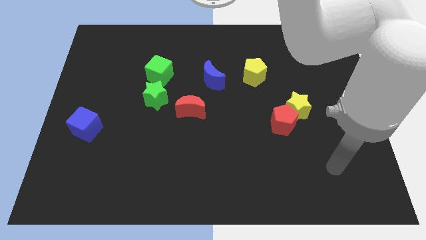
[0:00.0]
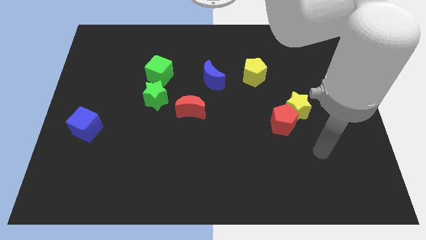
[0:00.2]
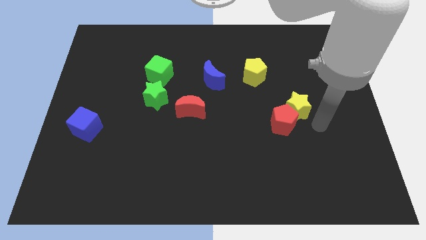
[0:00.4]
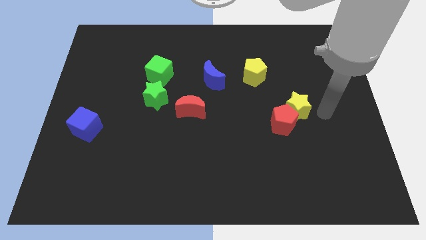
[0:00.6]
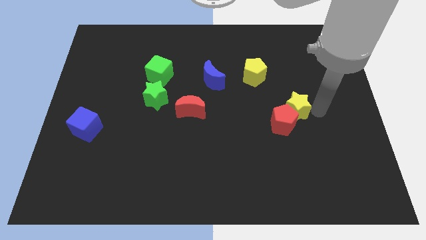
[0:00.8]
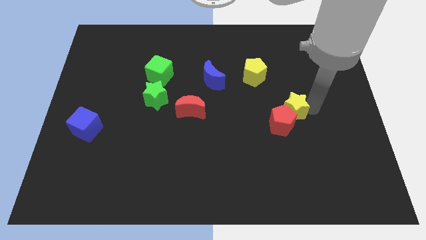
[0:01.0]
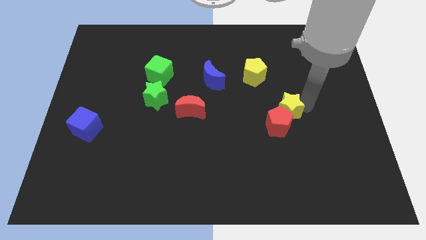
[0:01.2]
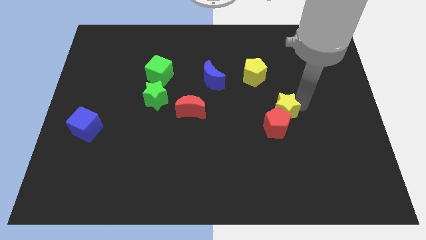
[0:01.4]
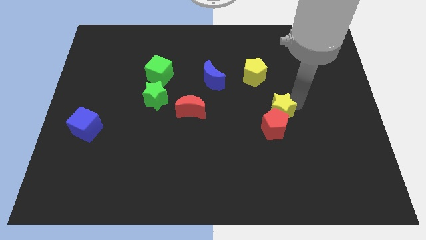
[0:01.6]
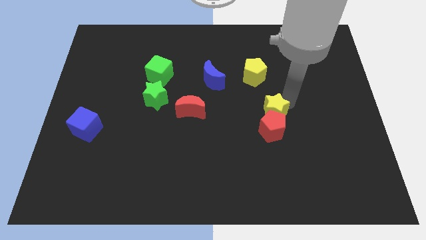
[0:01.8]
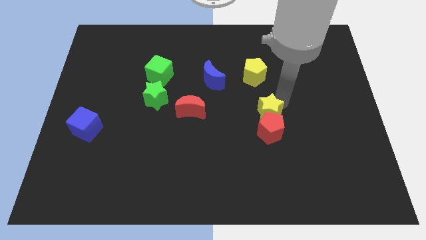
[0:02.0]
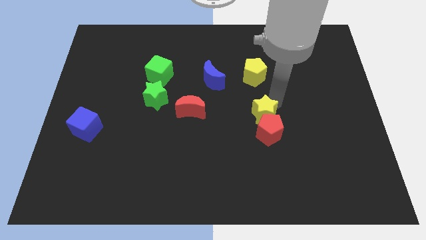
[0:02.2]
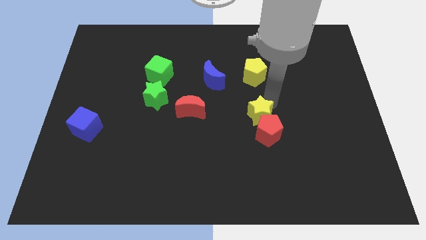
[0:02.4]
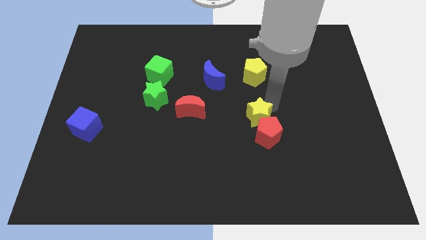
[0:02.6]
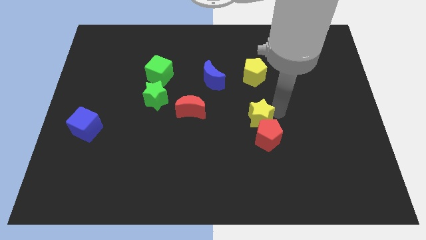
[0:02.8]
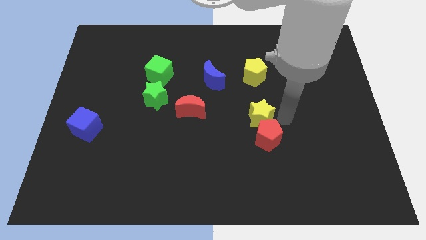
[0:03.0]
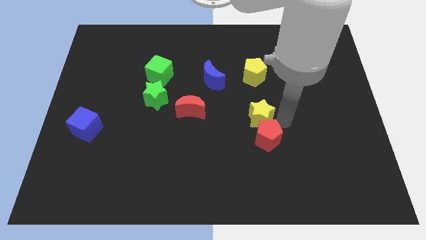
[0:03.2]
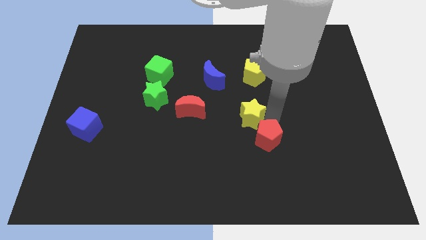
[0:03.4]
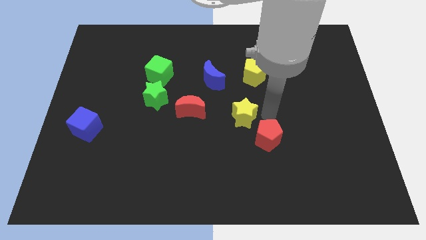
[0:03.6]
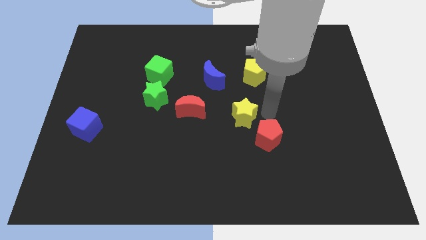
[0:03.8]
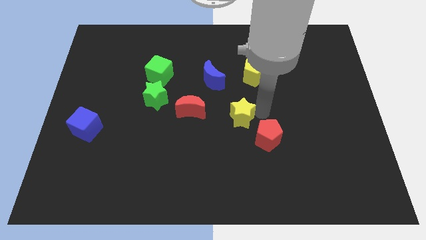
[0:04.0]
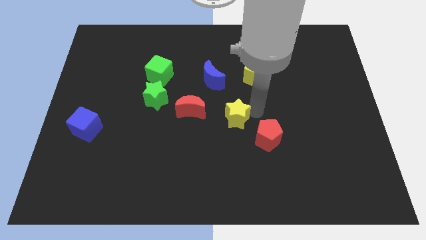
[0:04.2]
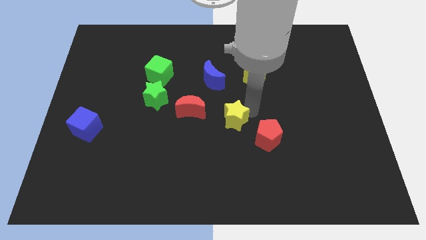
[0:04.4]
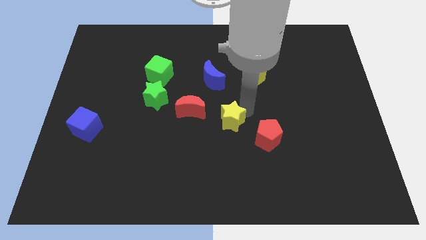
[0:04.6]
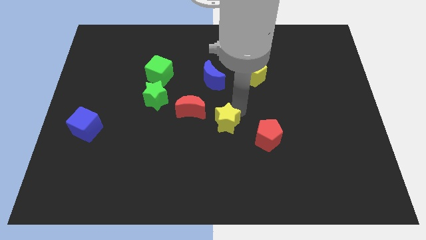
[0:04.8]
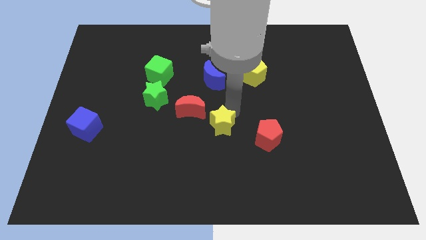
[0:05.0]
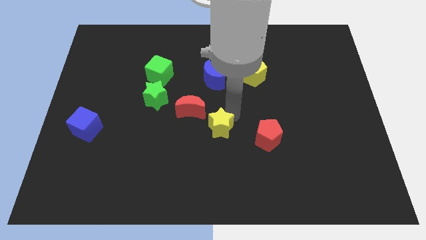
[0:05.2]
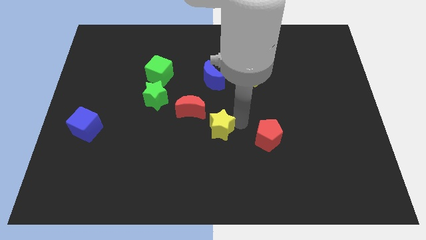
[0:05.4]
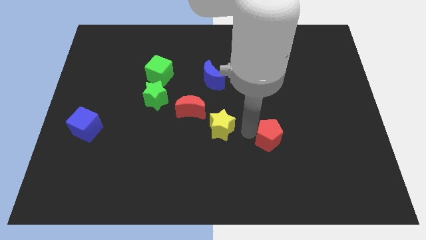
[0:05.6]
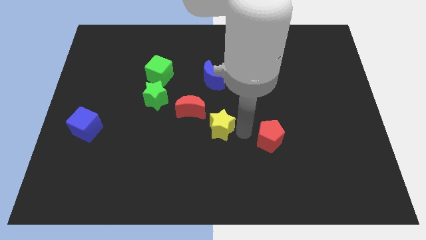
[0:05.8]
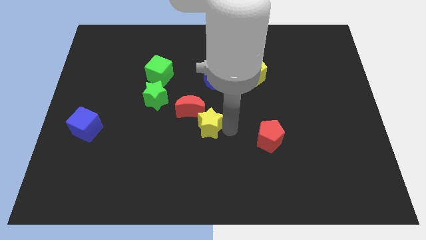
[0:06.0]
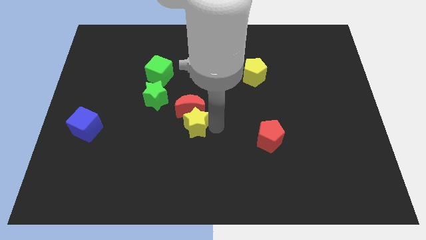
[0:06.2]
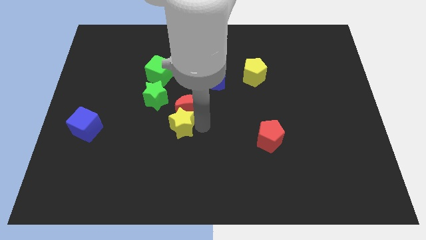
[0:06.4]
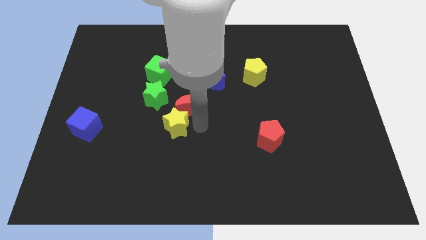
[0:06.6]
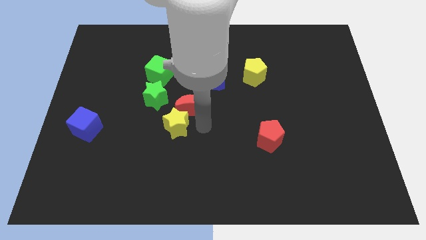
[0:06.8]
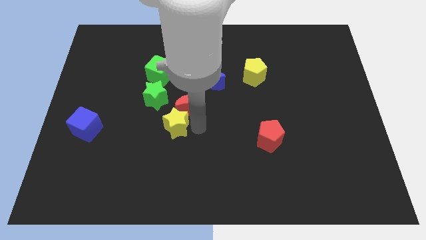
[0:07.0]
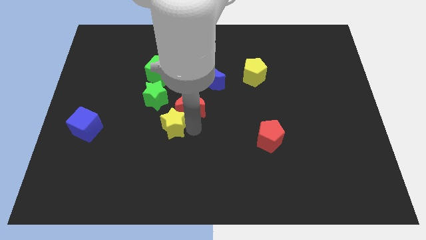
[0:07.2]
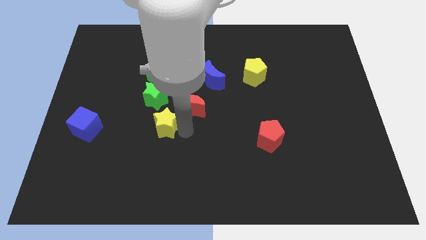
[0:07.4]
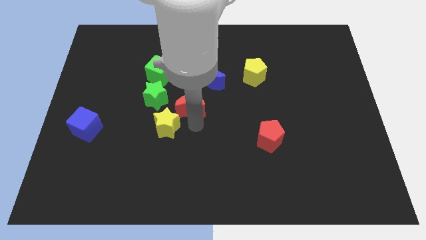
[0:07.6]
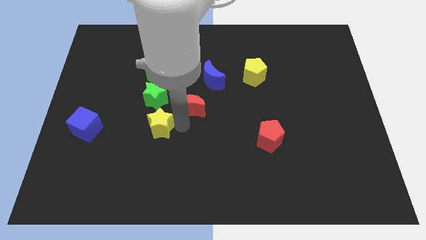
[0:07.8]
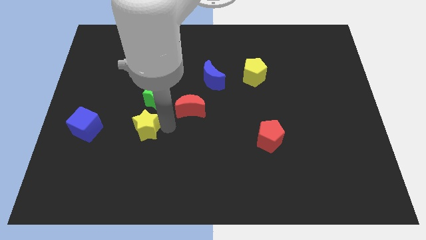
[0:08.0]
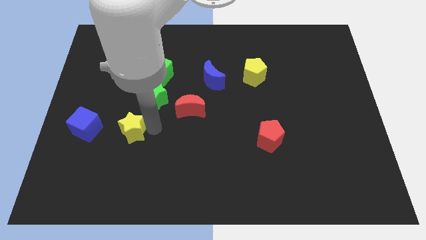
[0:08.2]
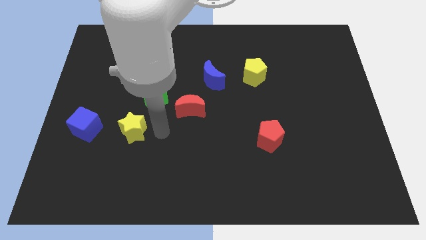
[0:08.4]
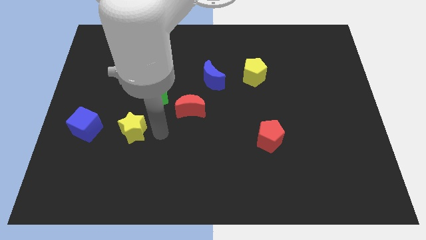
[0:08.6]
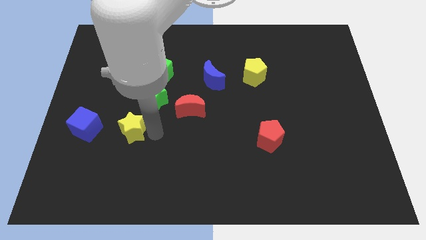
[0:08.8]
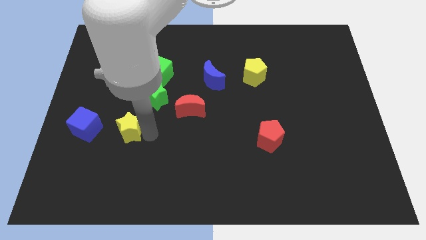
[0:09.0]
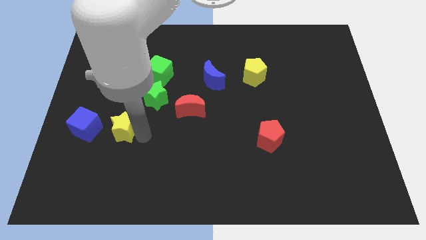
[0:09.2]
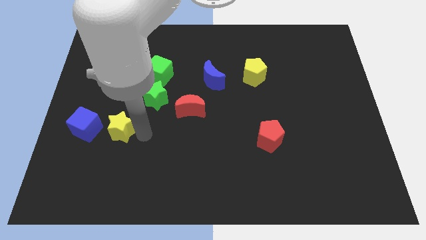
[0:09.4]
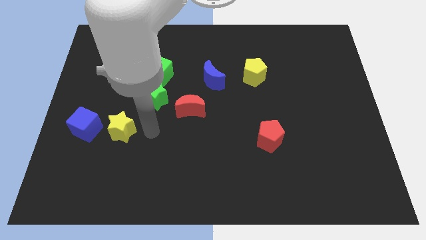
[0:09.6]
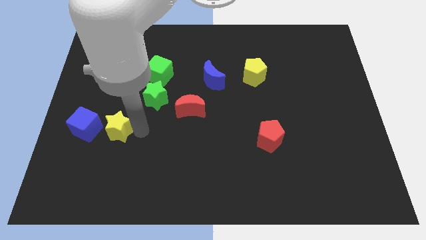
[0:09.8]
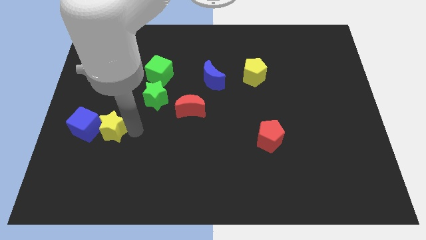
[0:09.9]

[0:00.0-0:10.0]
move the yellow star close to the blue cube

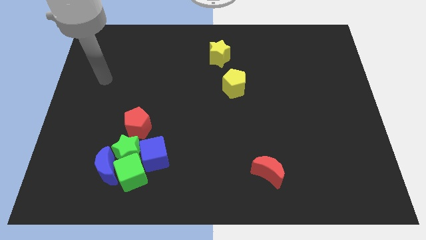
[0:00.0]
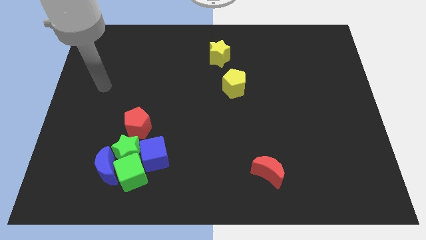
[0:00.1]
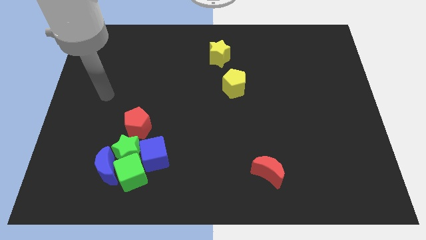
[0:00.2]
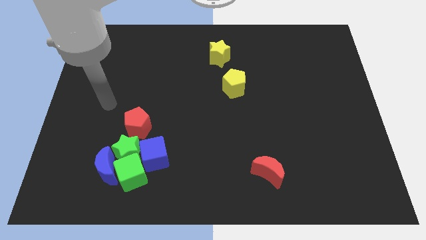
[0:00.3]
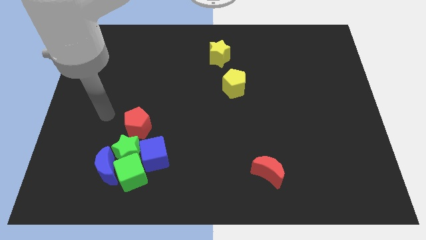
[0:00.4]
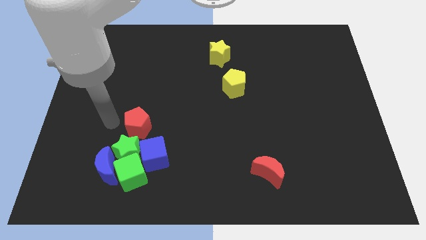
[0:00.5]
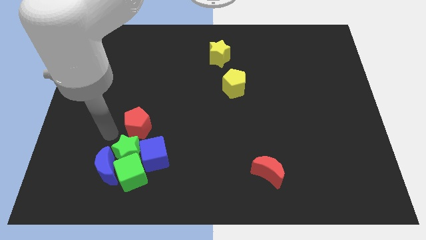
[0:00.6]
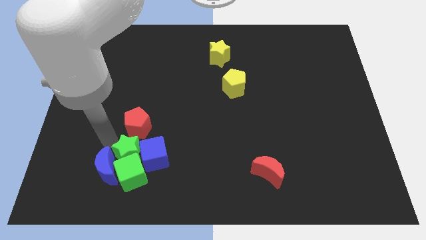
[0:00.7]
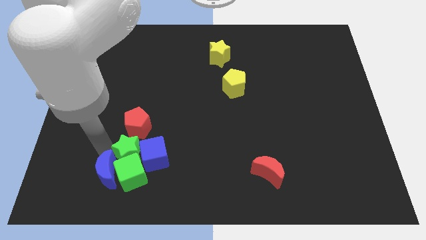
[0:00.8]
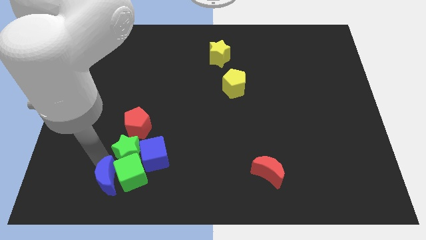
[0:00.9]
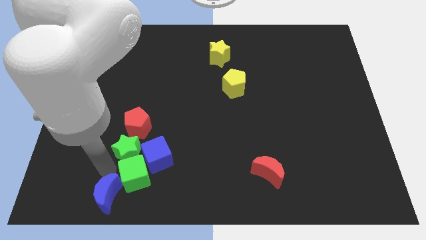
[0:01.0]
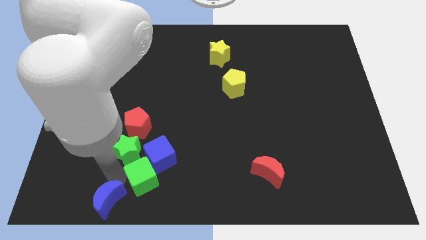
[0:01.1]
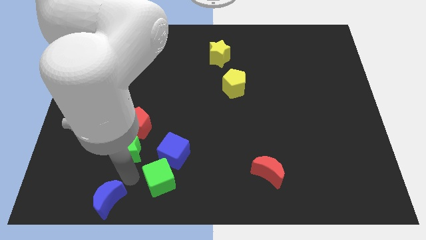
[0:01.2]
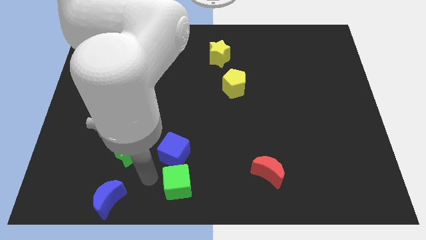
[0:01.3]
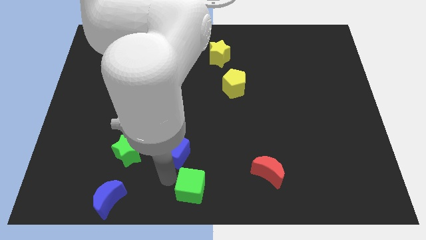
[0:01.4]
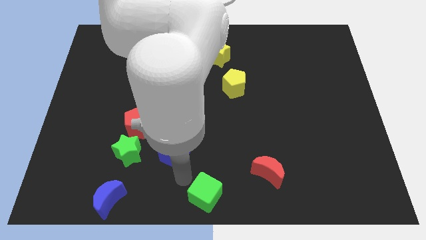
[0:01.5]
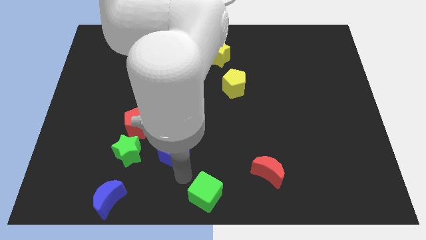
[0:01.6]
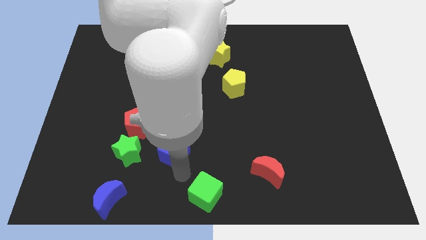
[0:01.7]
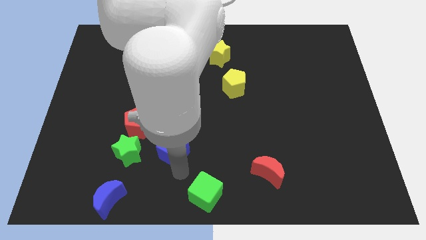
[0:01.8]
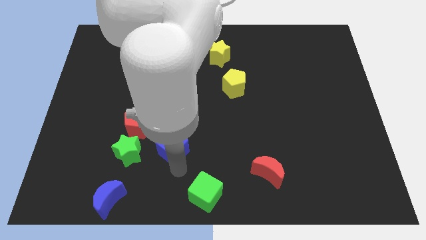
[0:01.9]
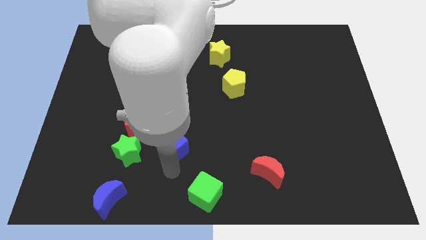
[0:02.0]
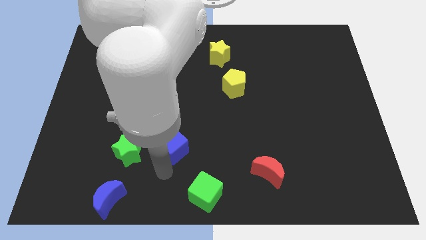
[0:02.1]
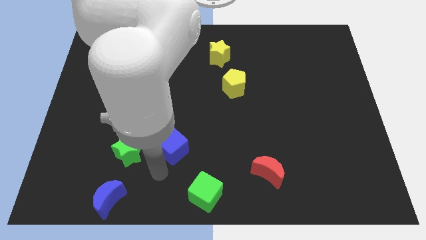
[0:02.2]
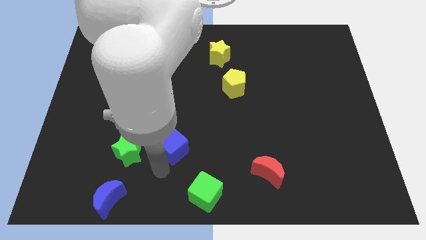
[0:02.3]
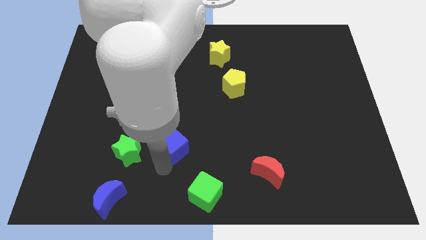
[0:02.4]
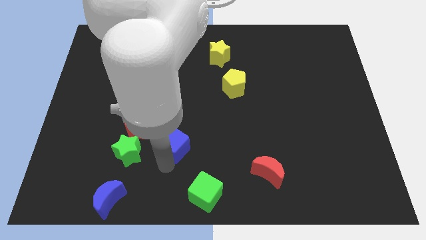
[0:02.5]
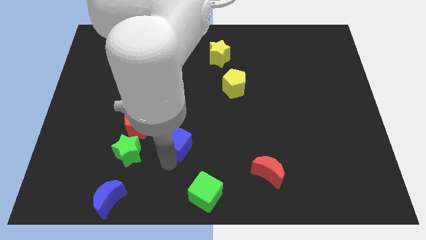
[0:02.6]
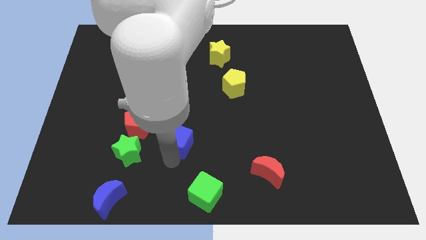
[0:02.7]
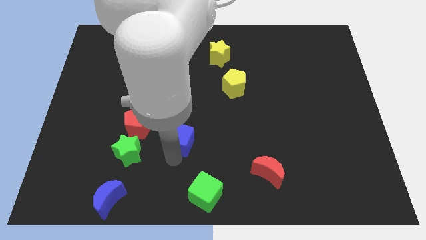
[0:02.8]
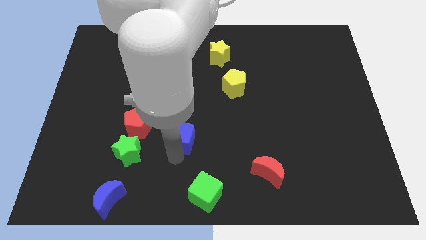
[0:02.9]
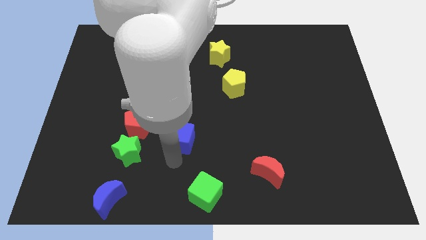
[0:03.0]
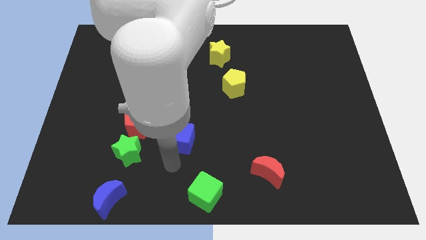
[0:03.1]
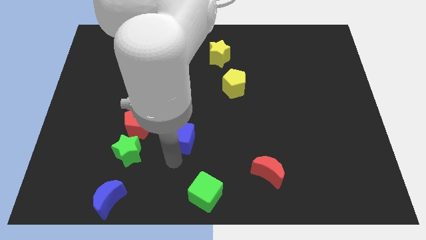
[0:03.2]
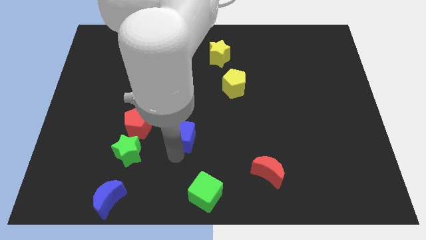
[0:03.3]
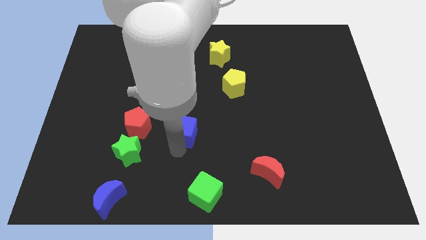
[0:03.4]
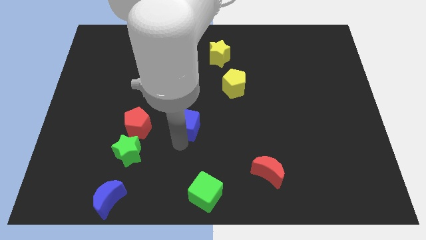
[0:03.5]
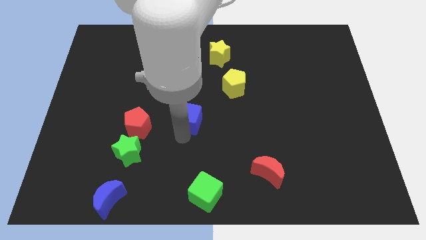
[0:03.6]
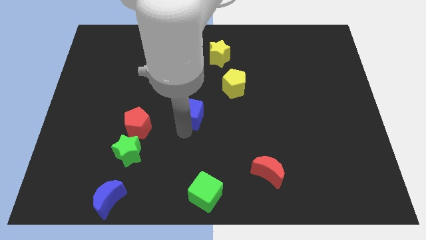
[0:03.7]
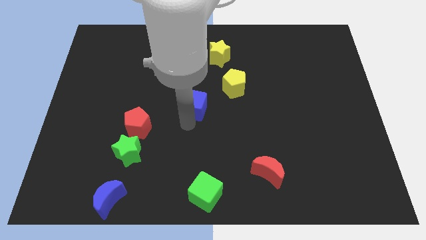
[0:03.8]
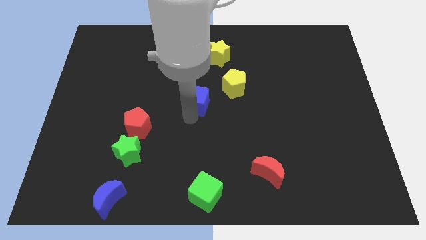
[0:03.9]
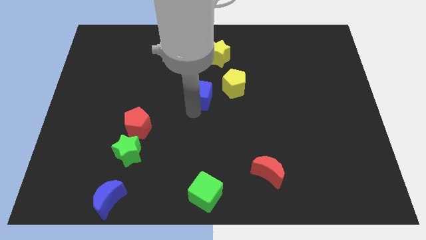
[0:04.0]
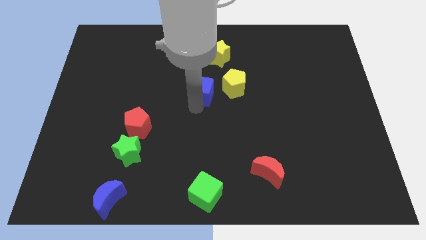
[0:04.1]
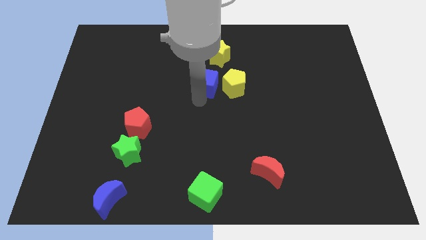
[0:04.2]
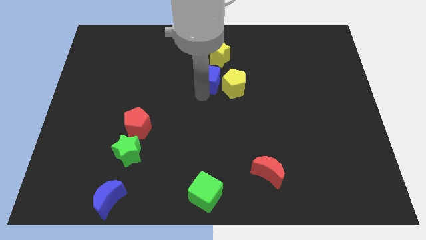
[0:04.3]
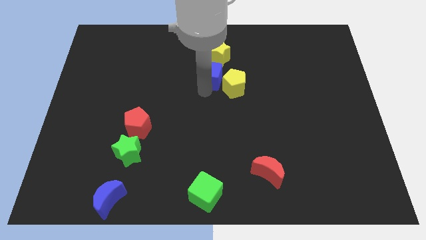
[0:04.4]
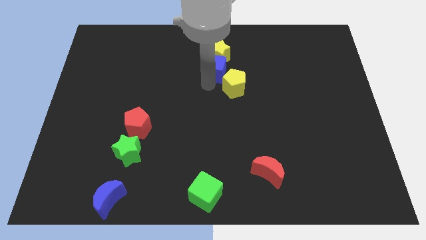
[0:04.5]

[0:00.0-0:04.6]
slide the blue cube to the yellow star
